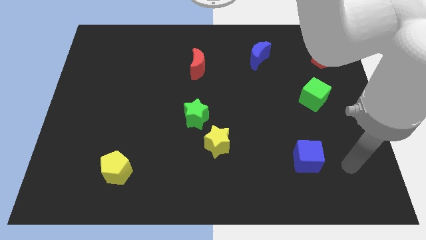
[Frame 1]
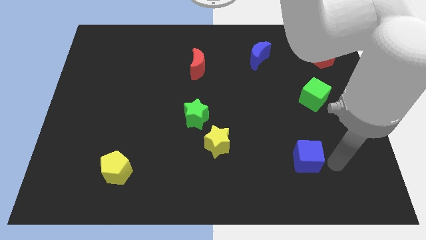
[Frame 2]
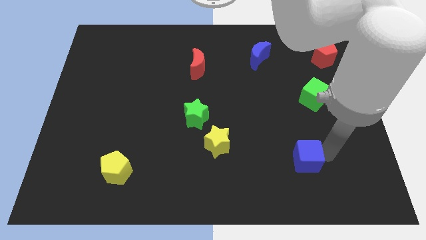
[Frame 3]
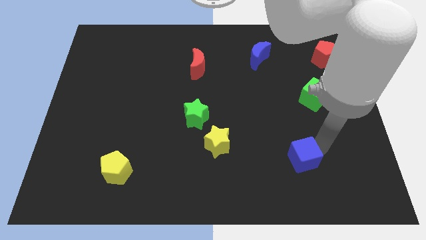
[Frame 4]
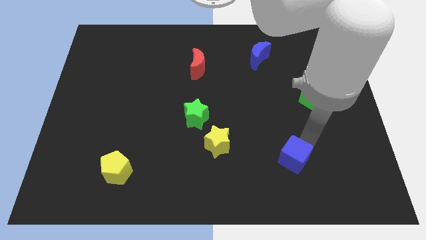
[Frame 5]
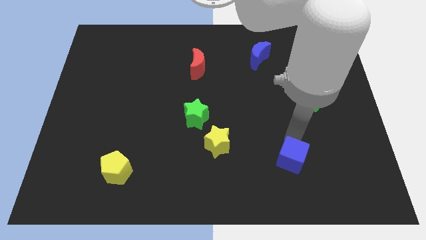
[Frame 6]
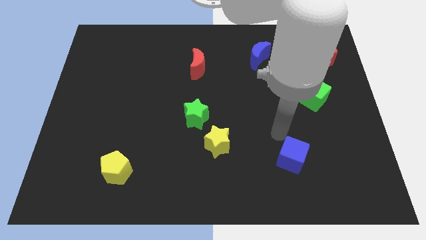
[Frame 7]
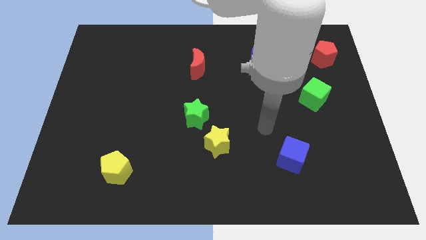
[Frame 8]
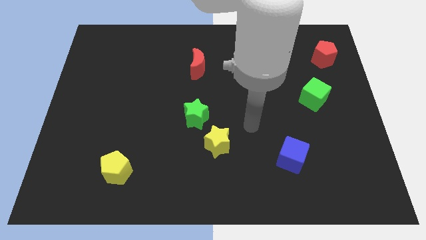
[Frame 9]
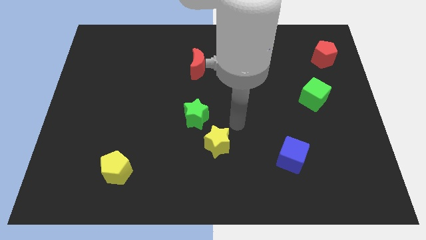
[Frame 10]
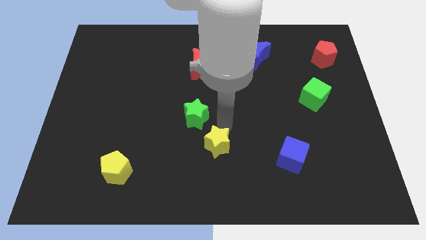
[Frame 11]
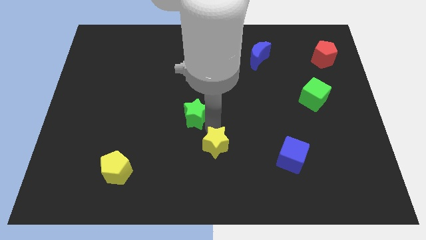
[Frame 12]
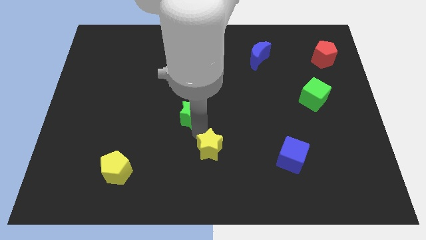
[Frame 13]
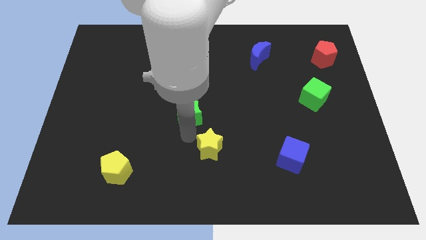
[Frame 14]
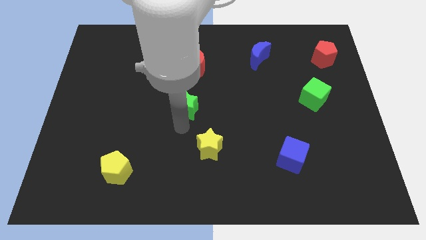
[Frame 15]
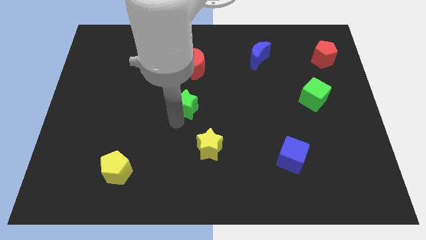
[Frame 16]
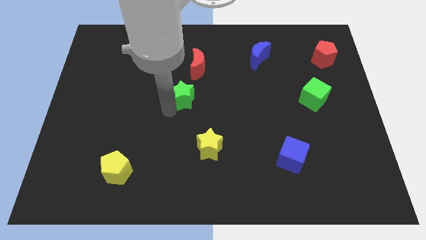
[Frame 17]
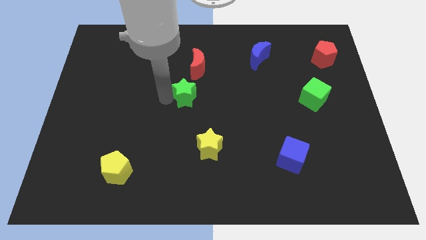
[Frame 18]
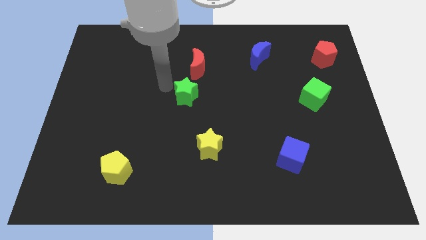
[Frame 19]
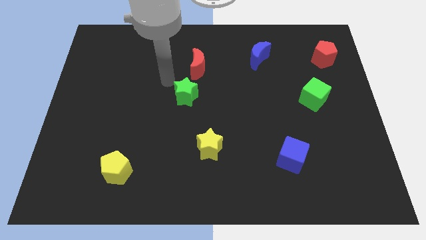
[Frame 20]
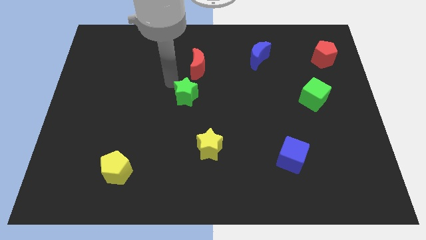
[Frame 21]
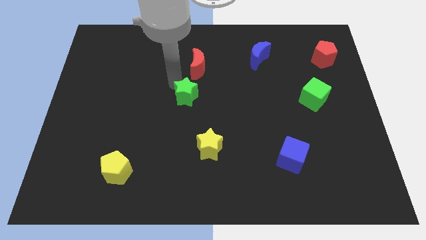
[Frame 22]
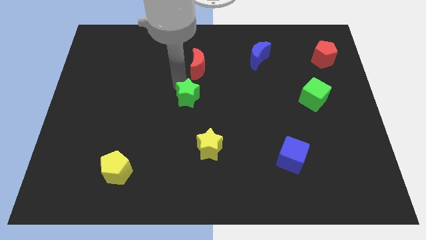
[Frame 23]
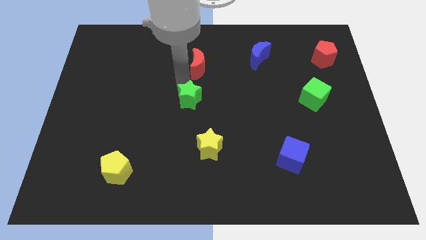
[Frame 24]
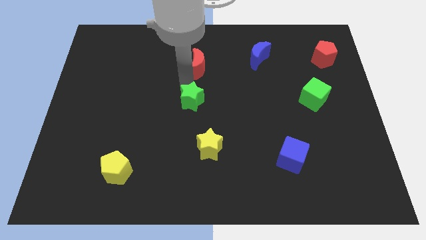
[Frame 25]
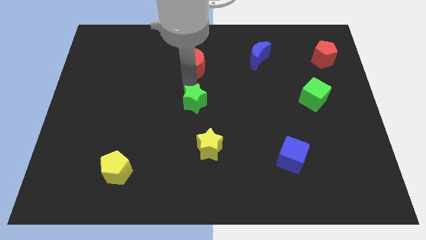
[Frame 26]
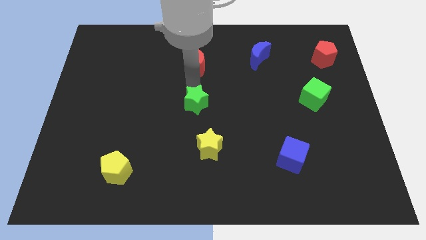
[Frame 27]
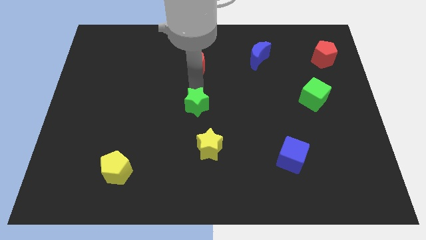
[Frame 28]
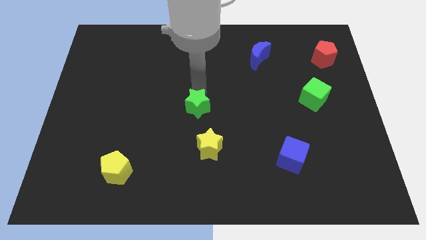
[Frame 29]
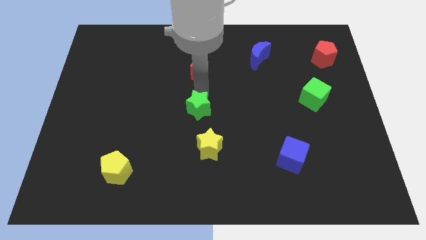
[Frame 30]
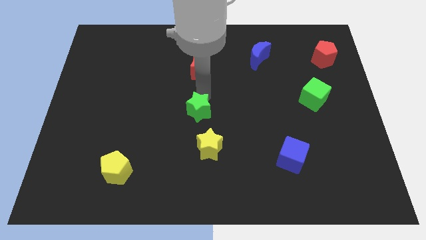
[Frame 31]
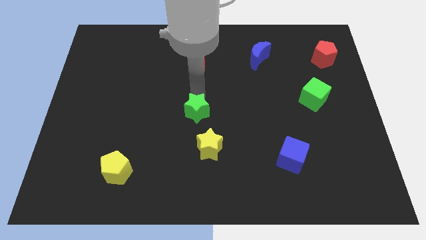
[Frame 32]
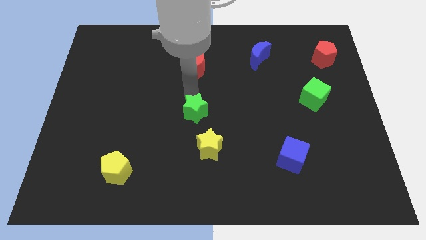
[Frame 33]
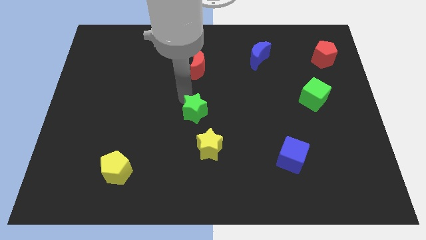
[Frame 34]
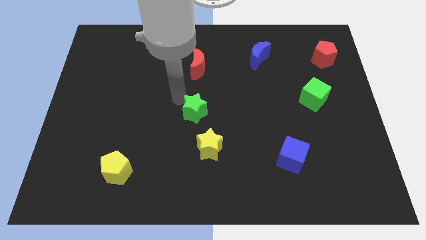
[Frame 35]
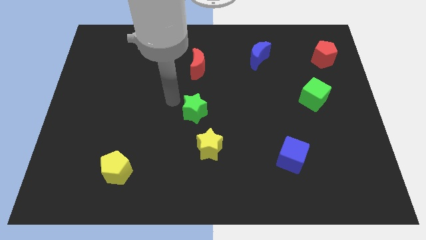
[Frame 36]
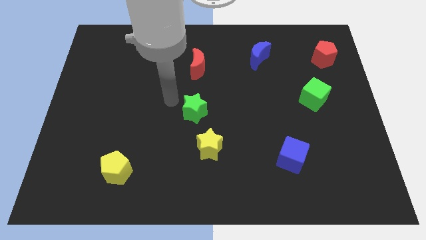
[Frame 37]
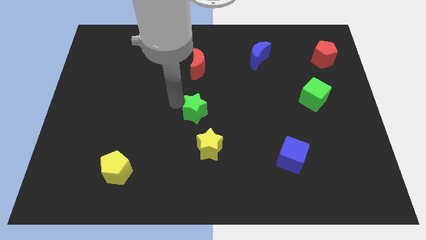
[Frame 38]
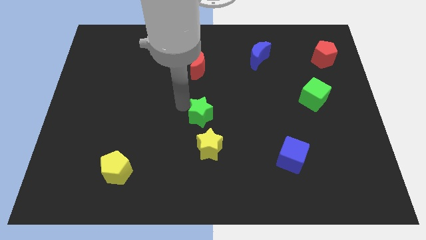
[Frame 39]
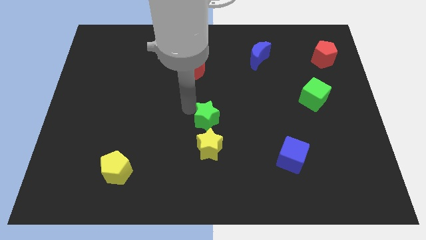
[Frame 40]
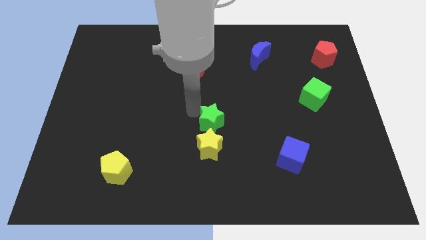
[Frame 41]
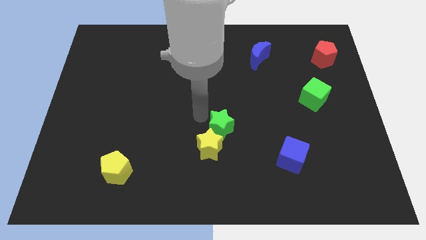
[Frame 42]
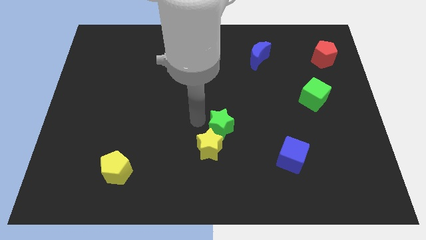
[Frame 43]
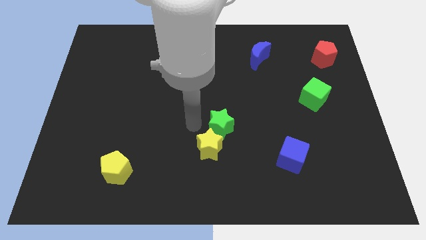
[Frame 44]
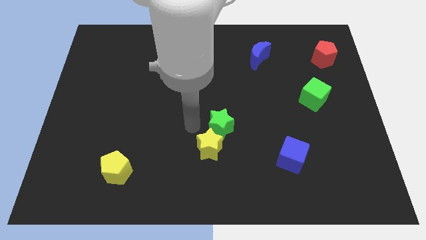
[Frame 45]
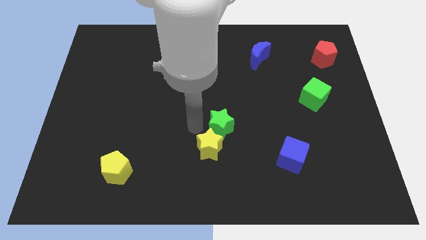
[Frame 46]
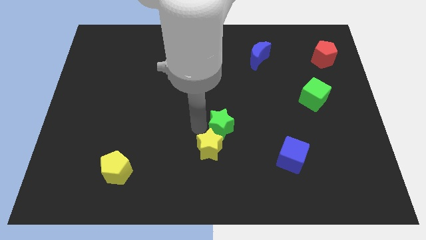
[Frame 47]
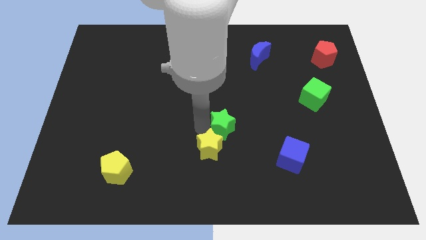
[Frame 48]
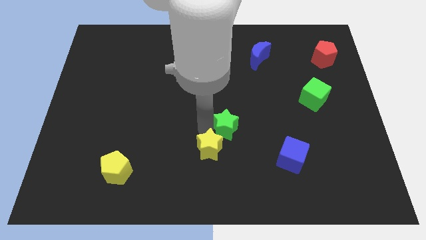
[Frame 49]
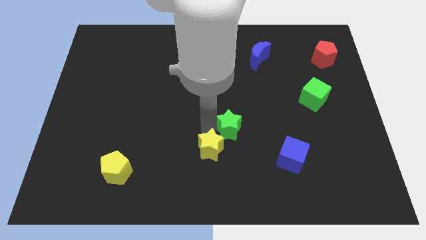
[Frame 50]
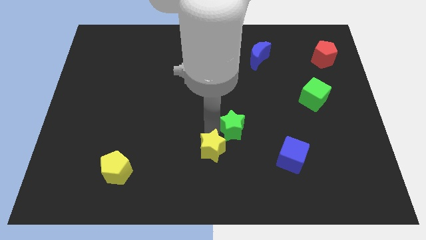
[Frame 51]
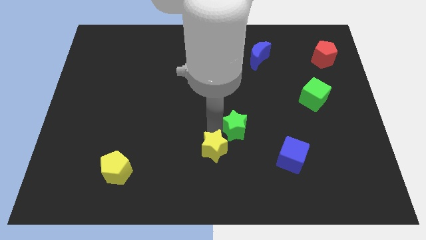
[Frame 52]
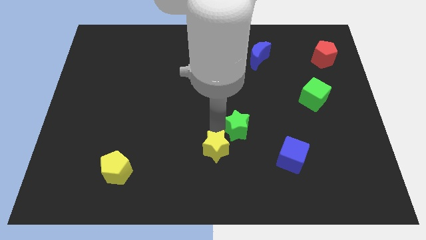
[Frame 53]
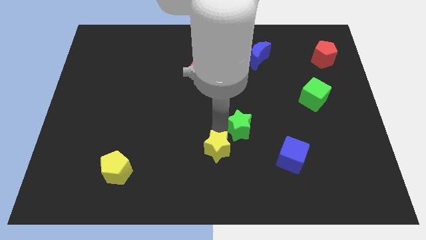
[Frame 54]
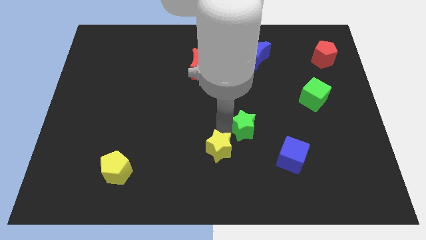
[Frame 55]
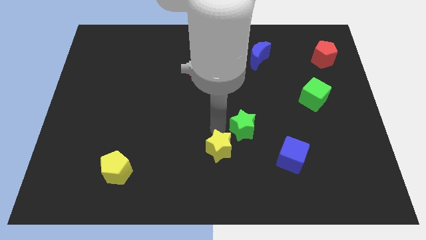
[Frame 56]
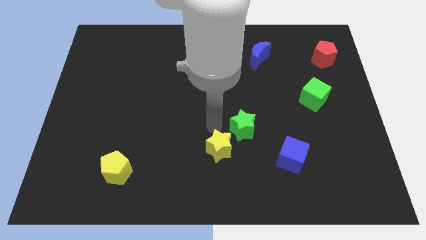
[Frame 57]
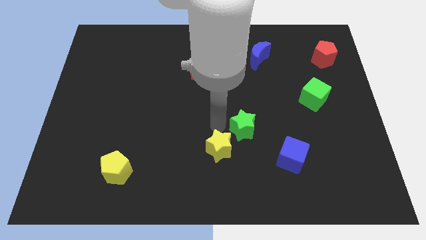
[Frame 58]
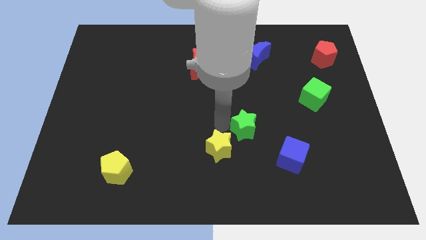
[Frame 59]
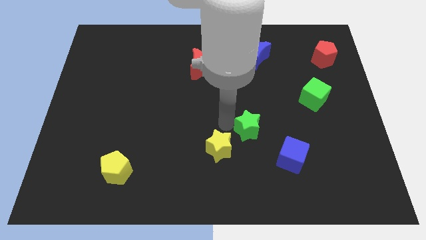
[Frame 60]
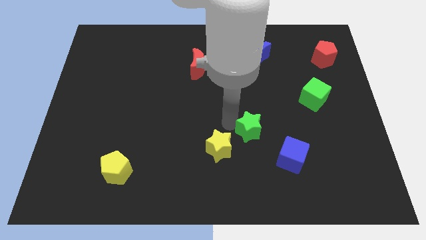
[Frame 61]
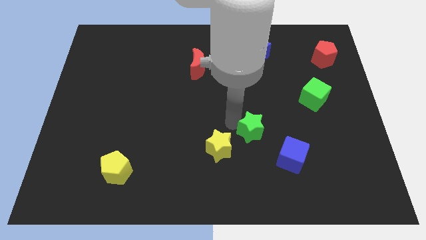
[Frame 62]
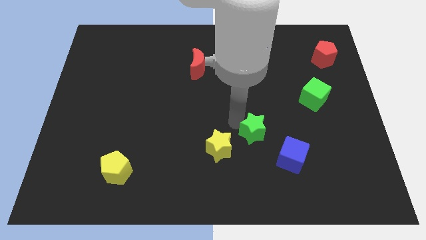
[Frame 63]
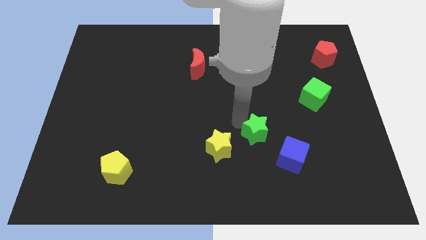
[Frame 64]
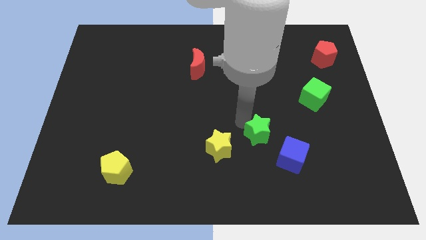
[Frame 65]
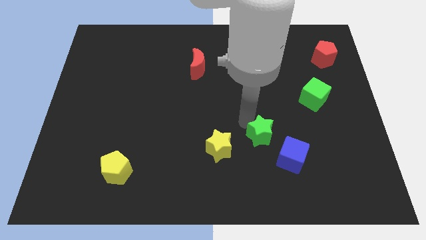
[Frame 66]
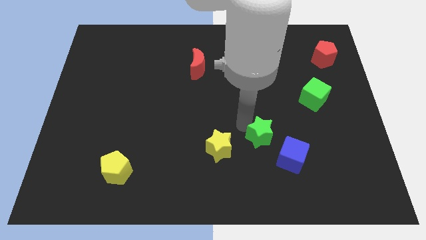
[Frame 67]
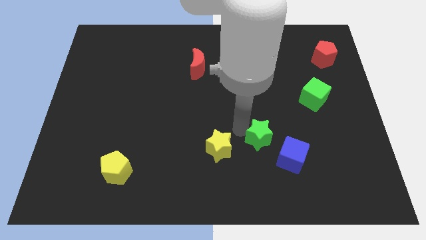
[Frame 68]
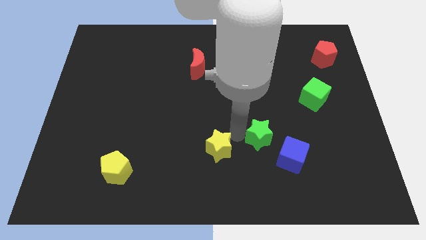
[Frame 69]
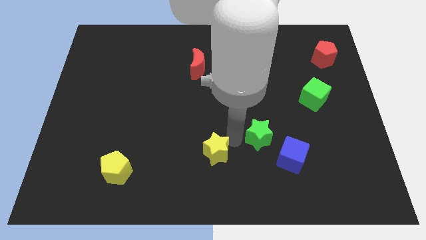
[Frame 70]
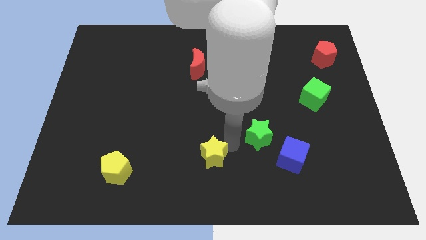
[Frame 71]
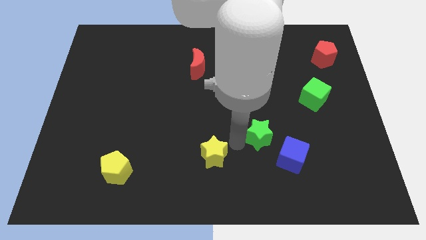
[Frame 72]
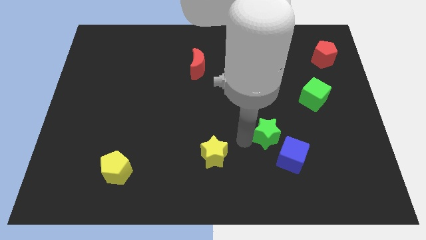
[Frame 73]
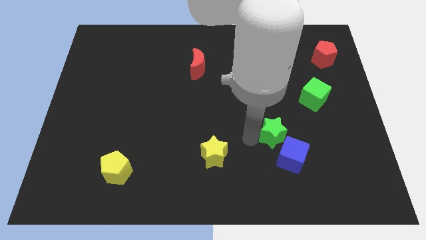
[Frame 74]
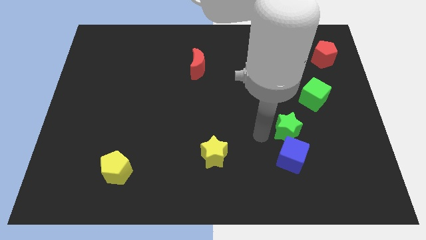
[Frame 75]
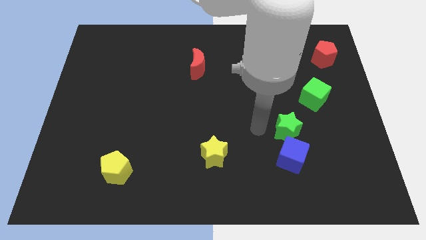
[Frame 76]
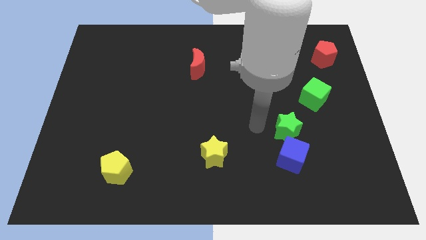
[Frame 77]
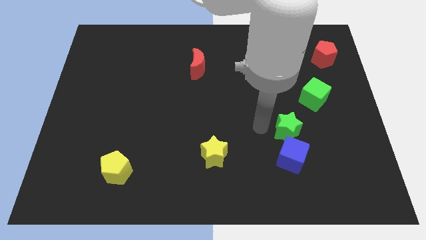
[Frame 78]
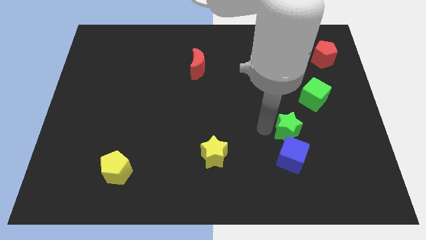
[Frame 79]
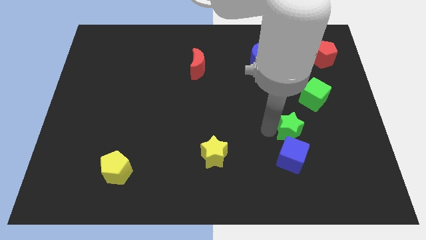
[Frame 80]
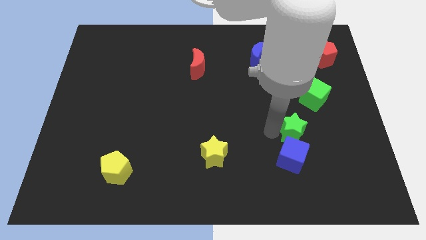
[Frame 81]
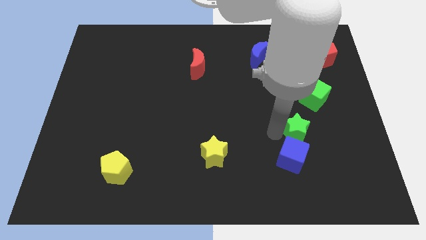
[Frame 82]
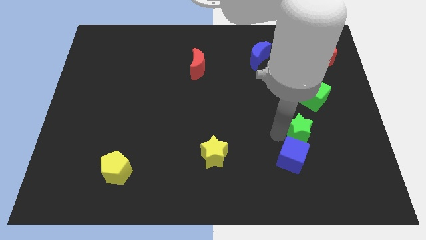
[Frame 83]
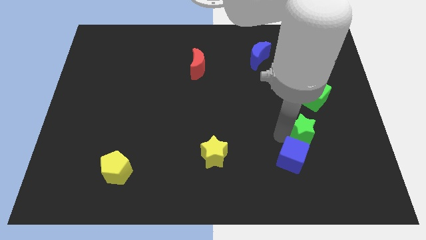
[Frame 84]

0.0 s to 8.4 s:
slide the green star to the bottom of the green cube
